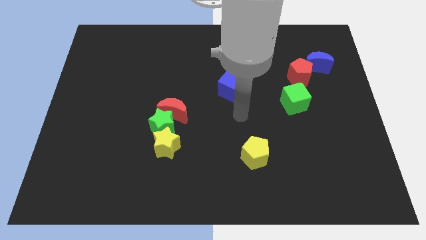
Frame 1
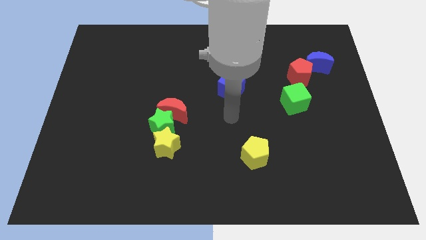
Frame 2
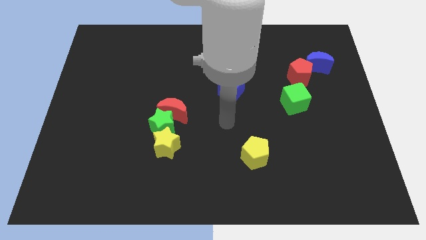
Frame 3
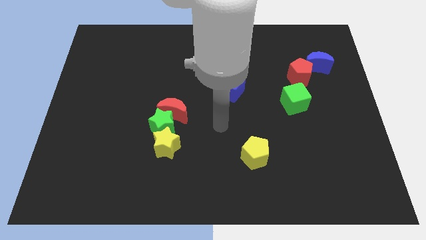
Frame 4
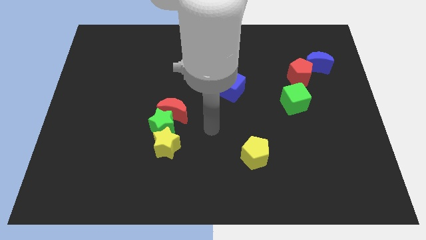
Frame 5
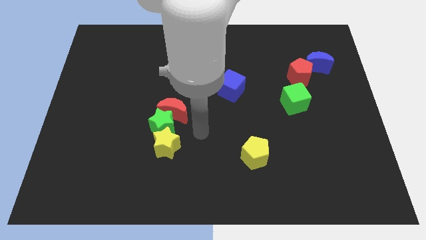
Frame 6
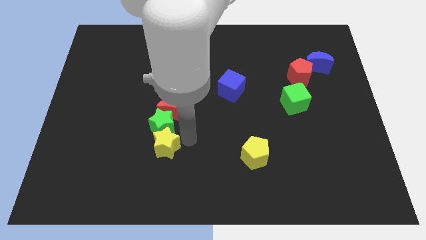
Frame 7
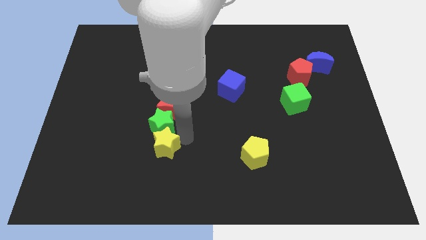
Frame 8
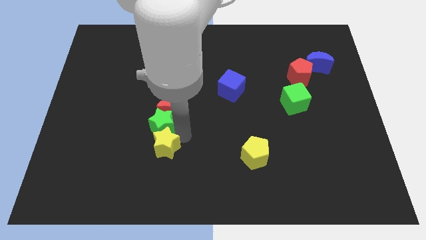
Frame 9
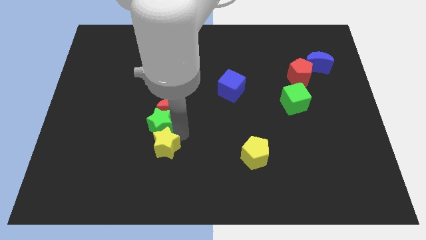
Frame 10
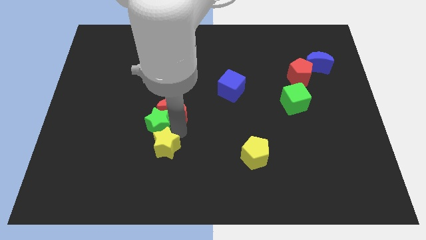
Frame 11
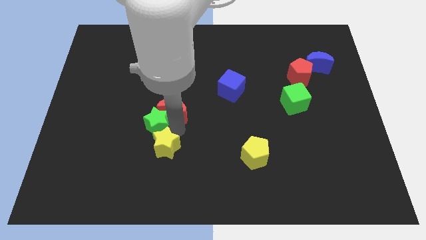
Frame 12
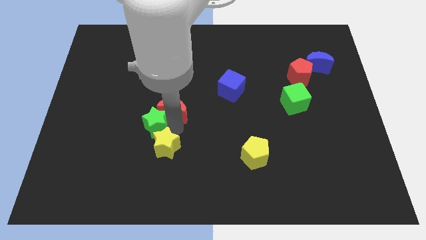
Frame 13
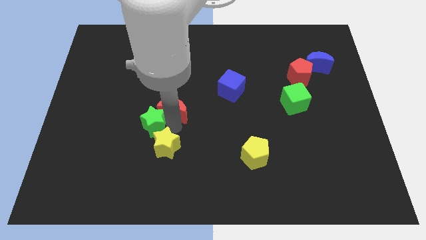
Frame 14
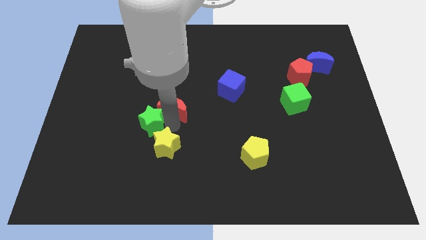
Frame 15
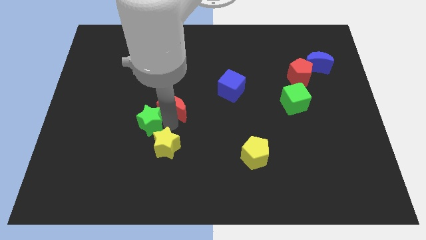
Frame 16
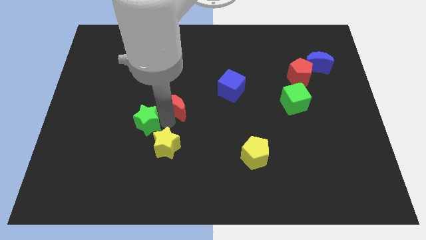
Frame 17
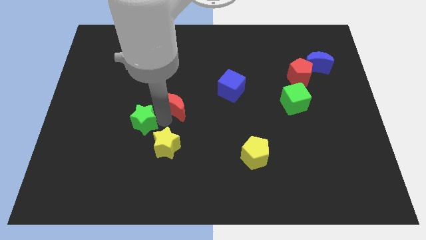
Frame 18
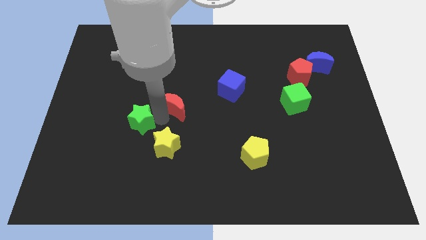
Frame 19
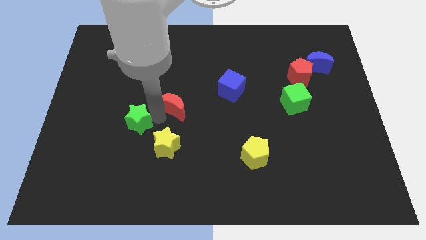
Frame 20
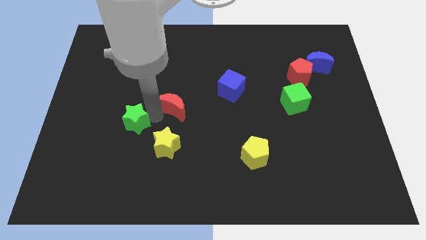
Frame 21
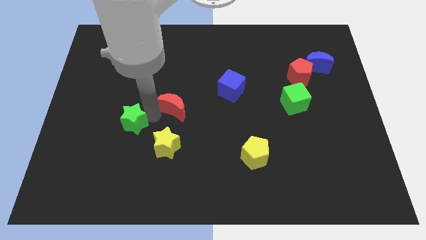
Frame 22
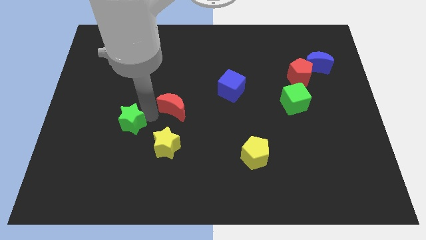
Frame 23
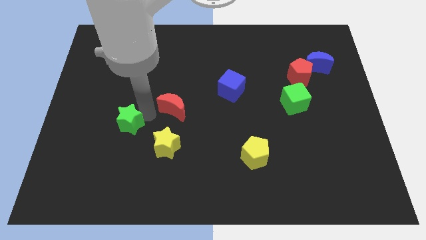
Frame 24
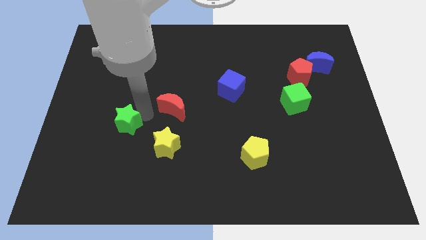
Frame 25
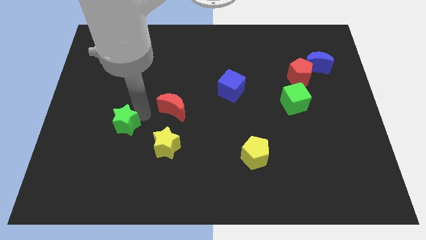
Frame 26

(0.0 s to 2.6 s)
pull the green star apart from the red moon and yellow star

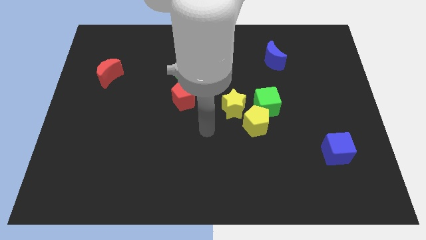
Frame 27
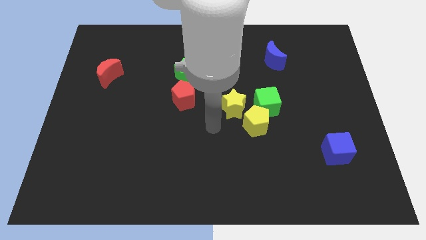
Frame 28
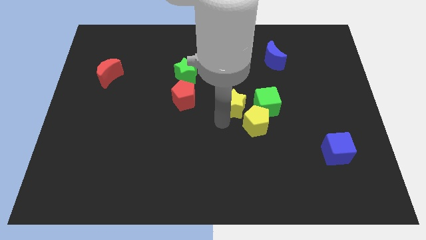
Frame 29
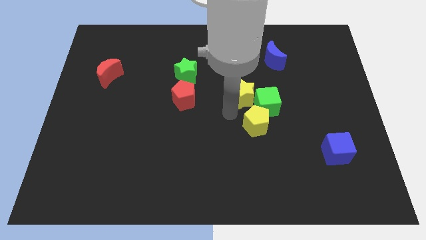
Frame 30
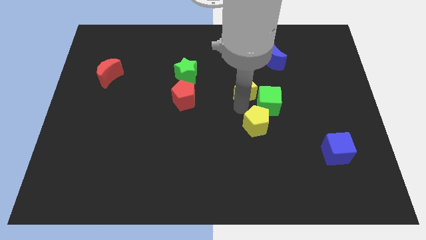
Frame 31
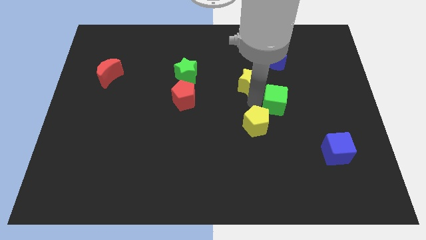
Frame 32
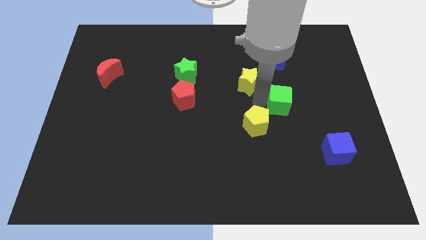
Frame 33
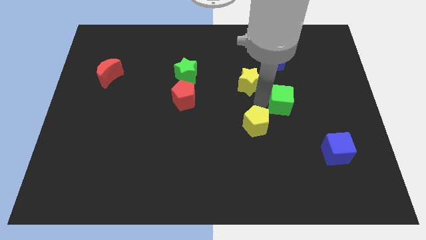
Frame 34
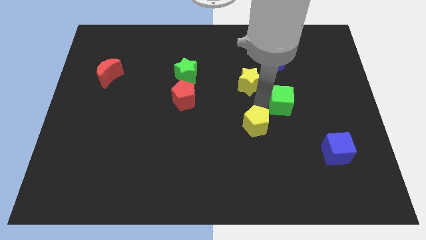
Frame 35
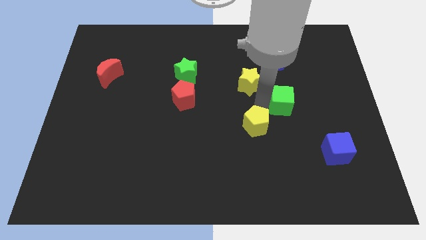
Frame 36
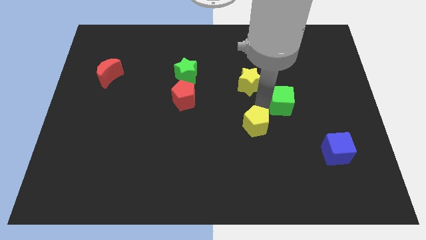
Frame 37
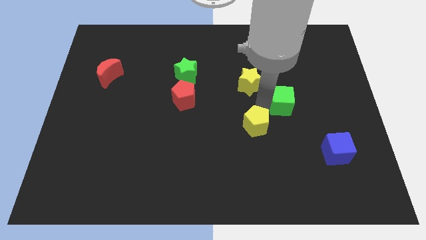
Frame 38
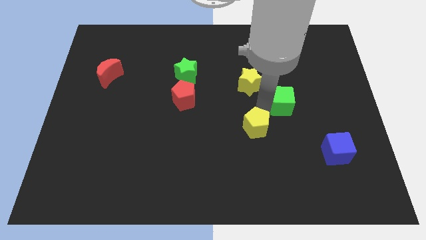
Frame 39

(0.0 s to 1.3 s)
separate the yellow pentagon from the green cube and yellow star

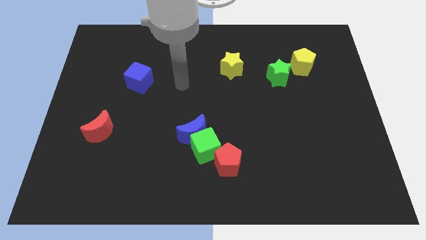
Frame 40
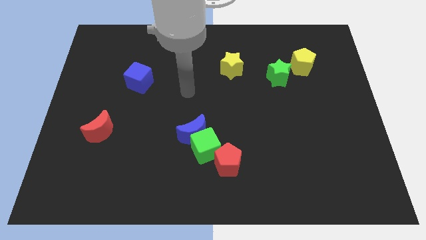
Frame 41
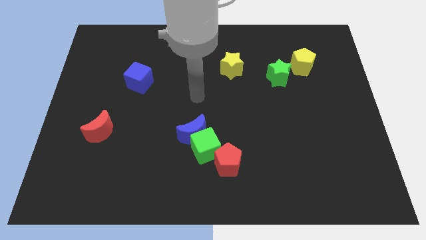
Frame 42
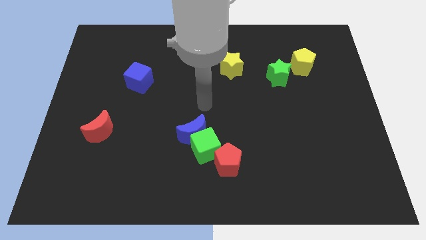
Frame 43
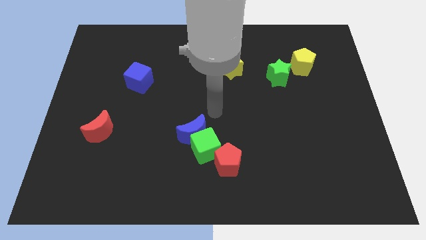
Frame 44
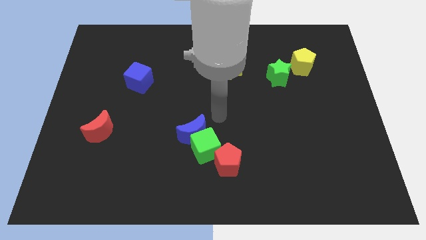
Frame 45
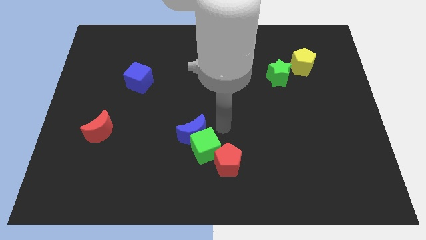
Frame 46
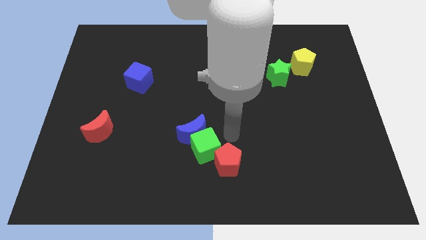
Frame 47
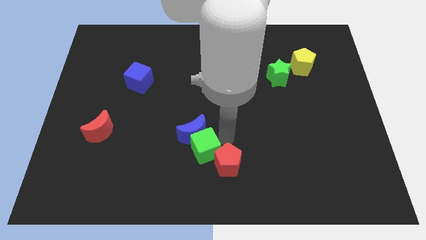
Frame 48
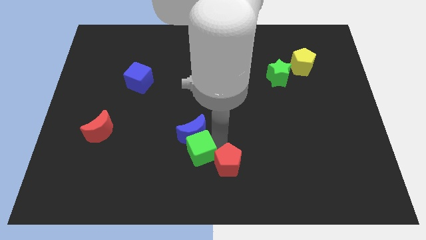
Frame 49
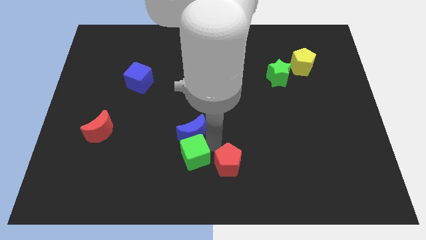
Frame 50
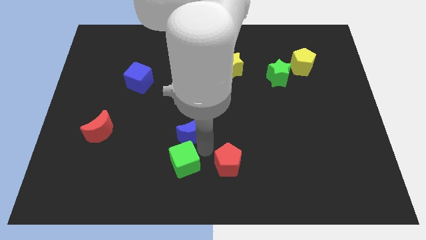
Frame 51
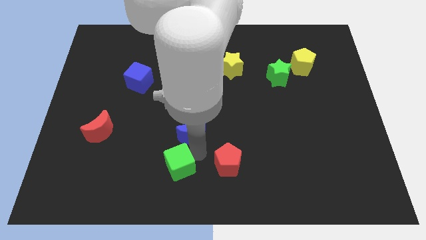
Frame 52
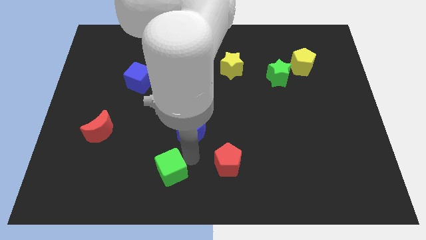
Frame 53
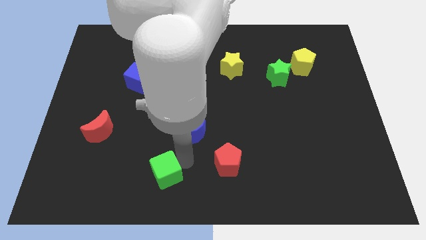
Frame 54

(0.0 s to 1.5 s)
pull the green cube apart from the blue moon and red pentagon

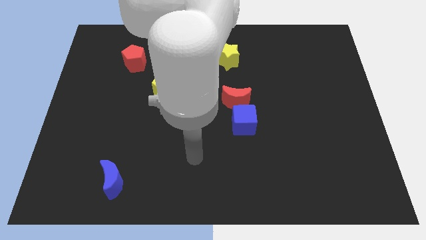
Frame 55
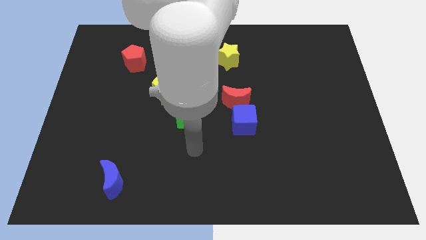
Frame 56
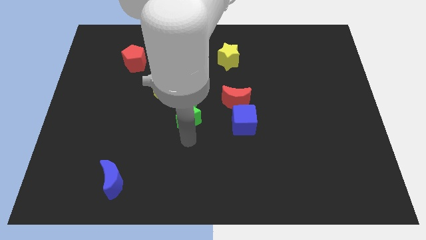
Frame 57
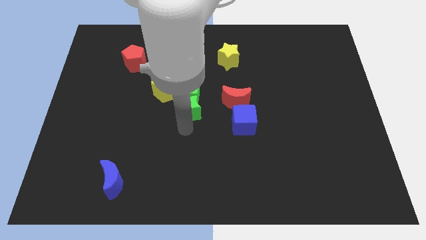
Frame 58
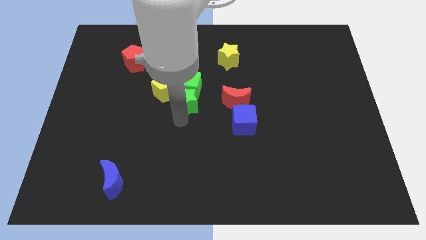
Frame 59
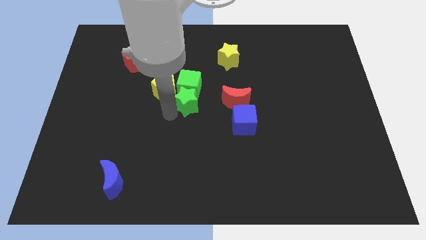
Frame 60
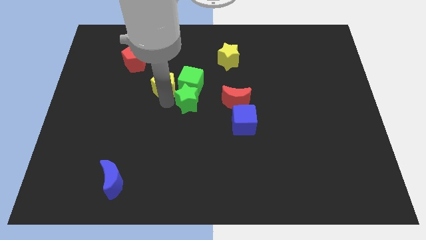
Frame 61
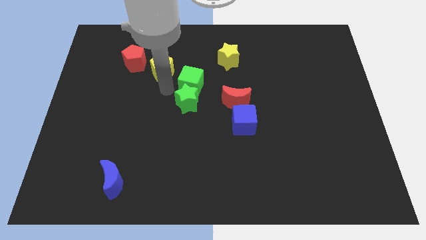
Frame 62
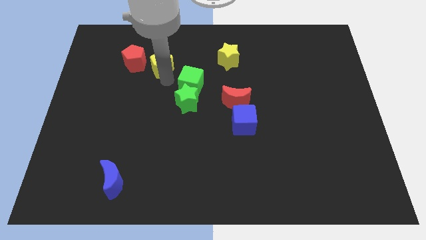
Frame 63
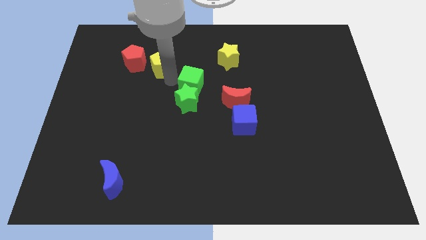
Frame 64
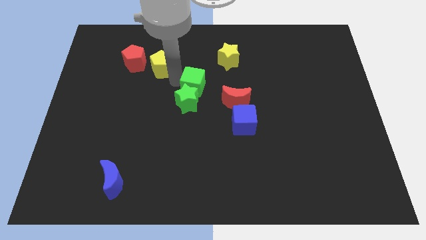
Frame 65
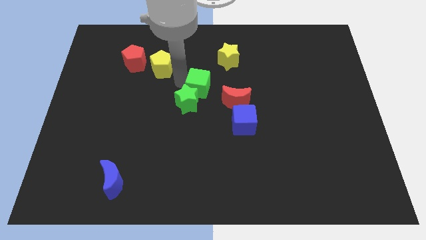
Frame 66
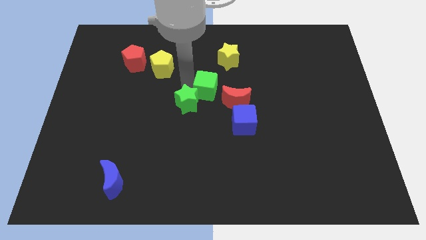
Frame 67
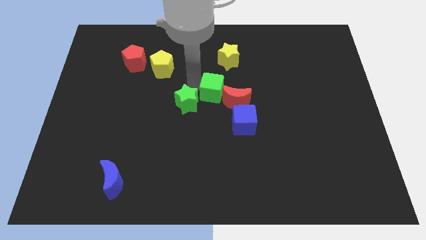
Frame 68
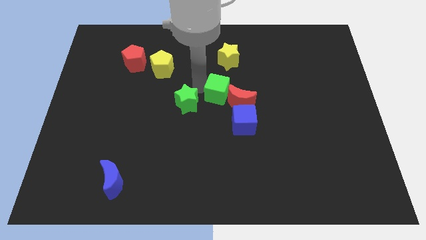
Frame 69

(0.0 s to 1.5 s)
pull the green cube apart from the green star and yellow pentagon

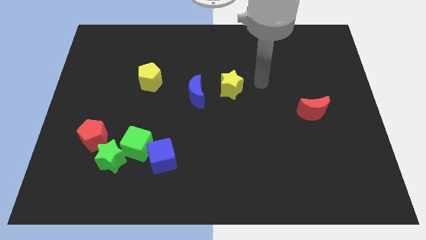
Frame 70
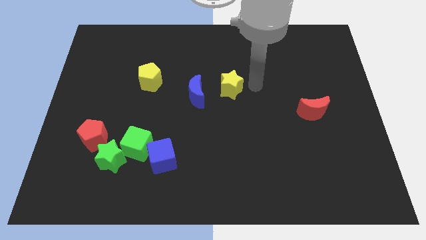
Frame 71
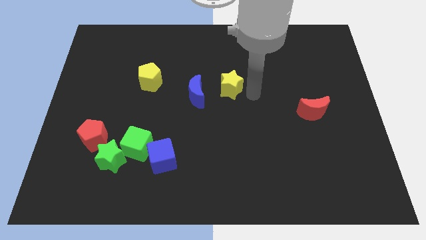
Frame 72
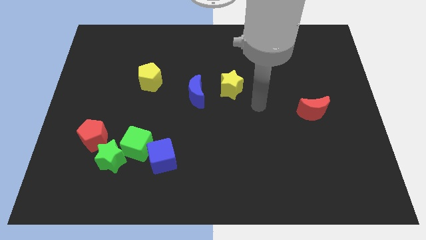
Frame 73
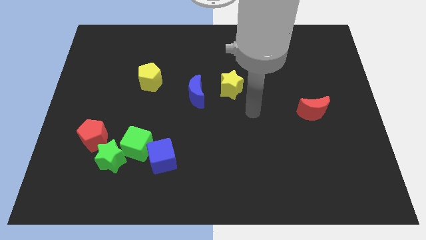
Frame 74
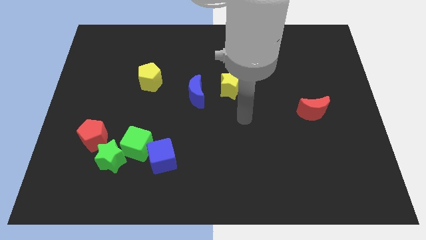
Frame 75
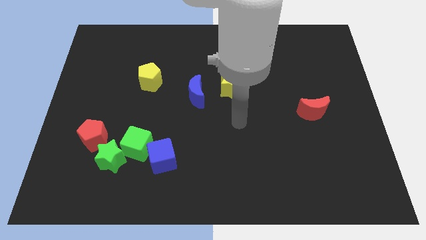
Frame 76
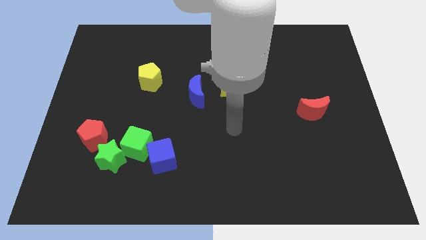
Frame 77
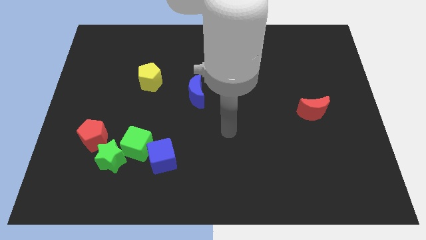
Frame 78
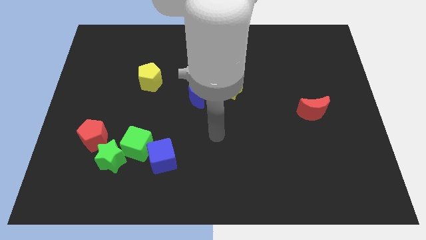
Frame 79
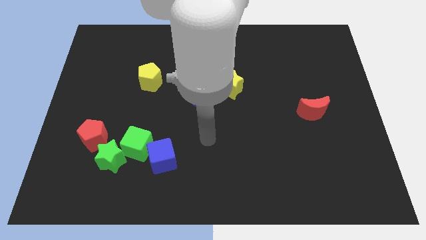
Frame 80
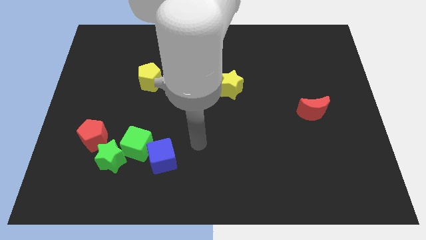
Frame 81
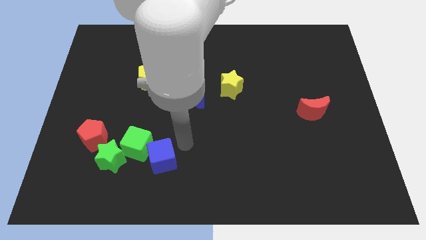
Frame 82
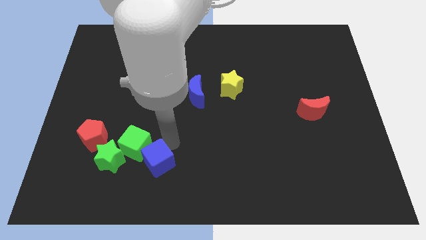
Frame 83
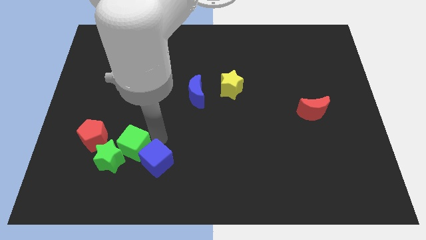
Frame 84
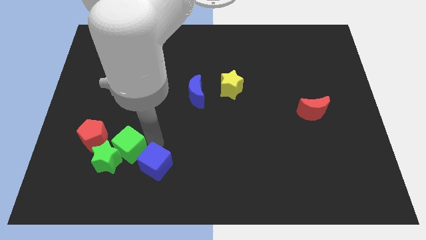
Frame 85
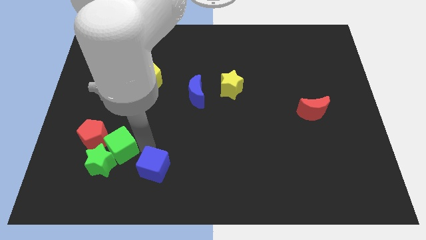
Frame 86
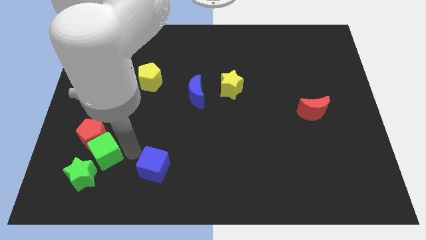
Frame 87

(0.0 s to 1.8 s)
move the blue cube away from the green cube

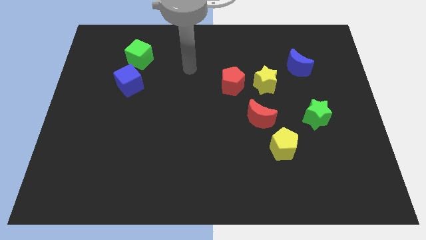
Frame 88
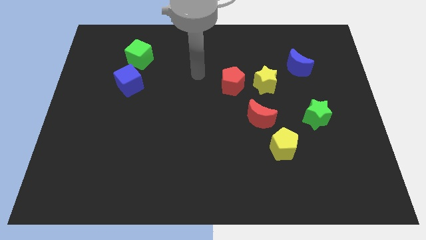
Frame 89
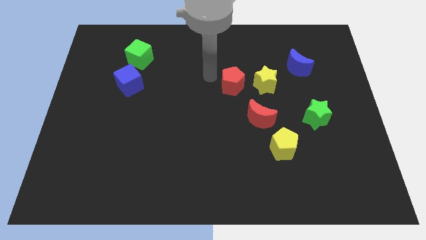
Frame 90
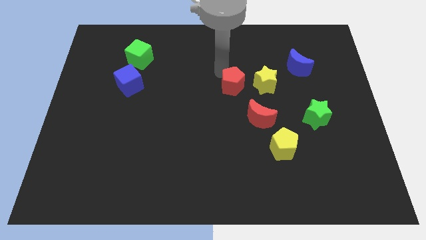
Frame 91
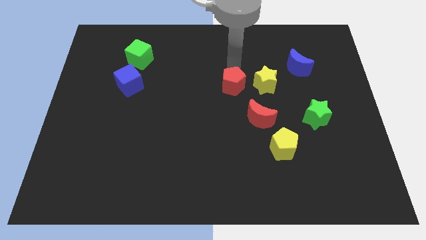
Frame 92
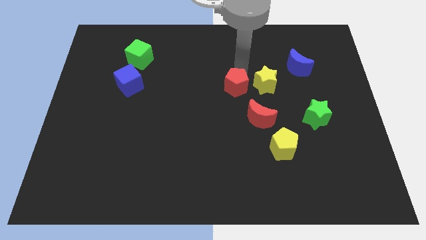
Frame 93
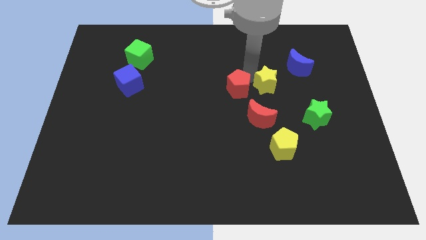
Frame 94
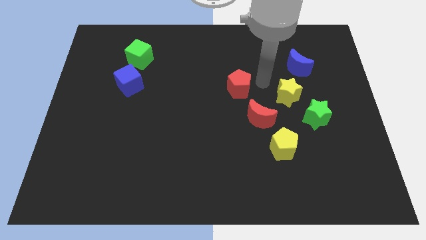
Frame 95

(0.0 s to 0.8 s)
pull the red pentagon apart from the yellow star

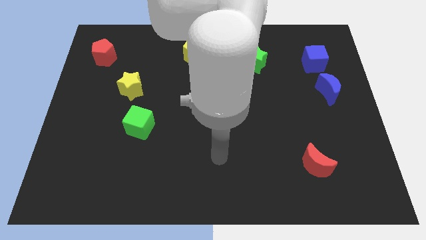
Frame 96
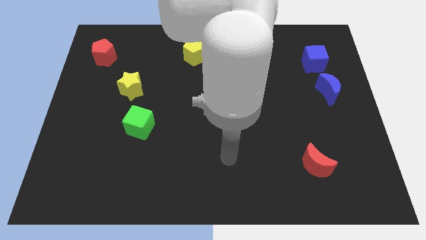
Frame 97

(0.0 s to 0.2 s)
separate the blue moon from the blue cube
